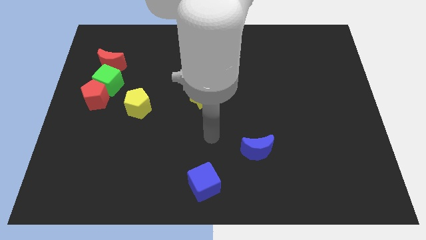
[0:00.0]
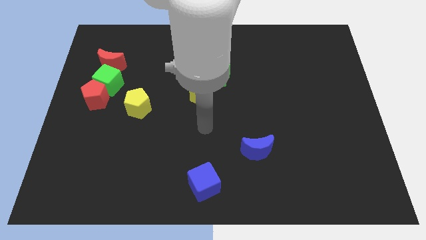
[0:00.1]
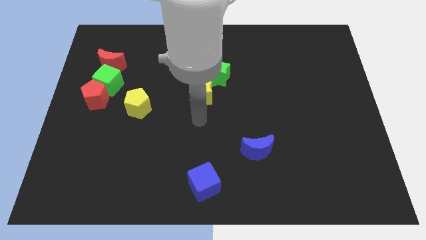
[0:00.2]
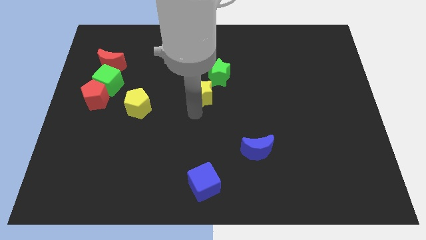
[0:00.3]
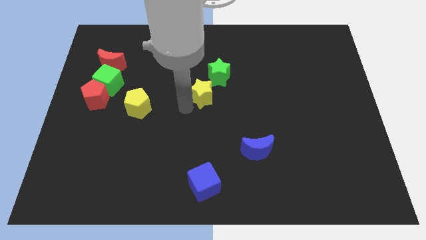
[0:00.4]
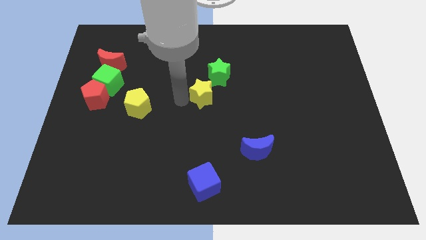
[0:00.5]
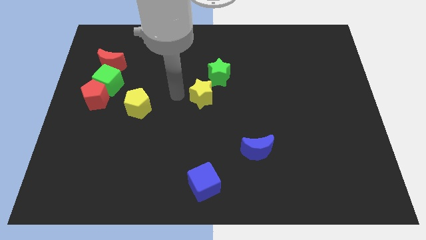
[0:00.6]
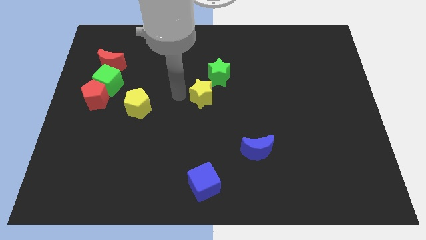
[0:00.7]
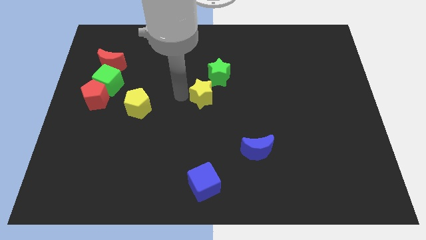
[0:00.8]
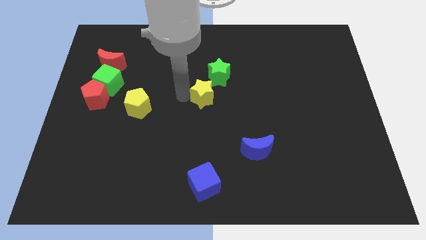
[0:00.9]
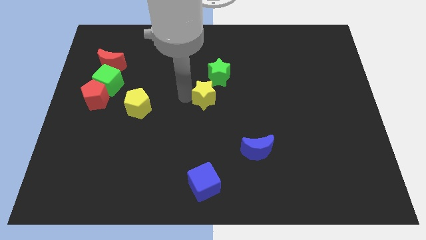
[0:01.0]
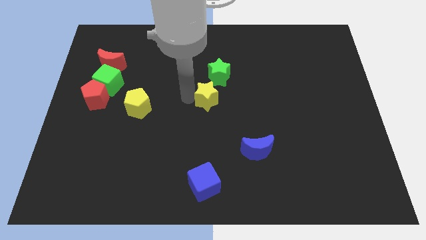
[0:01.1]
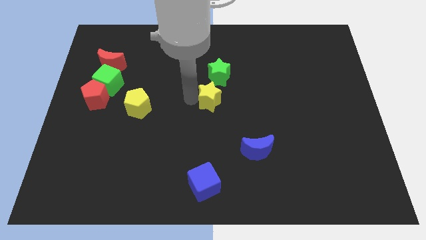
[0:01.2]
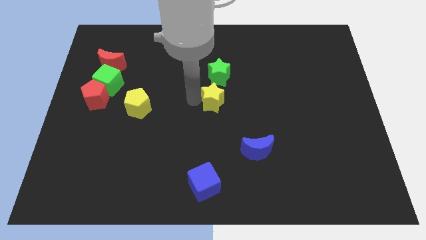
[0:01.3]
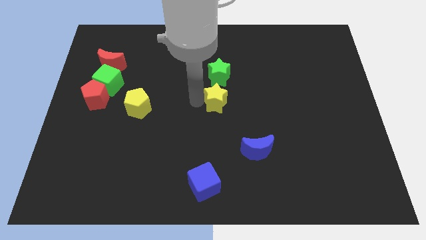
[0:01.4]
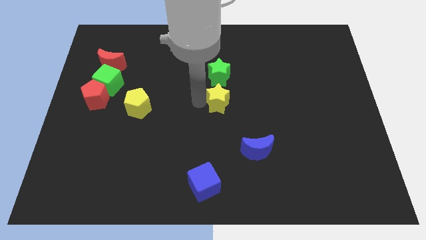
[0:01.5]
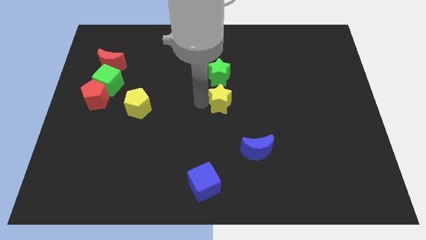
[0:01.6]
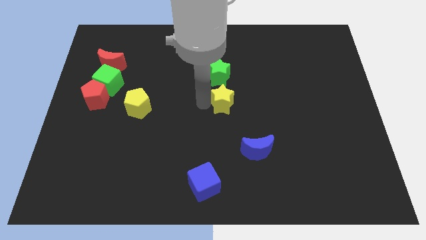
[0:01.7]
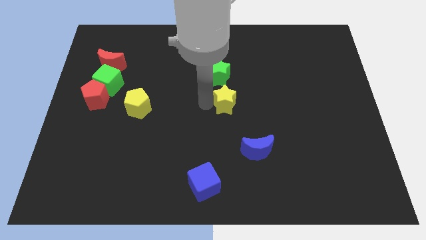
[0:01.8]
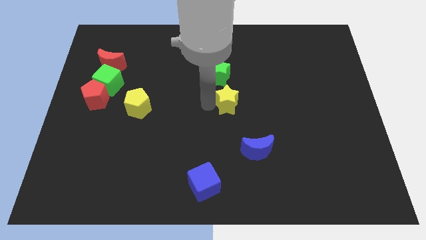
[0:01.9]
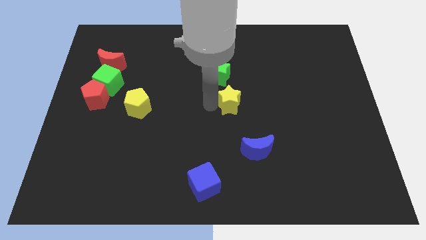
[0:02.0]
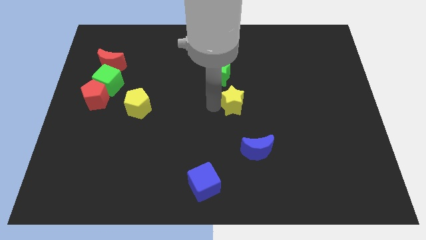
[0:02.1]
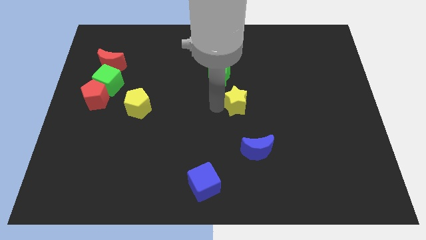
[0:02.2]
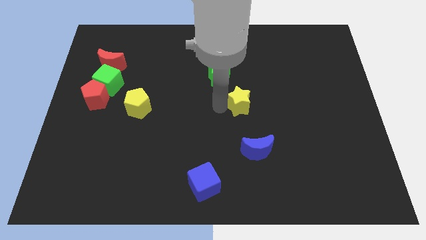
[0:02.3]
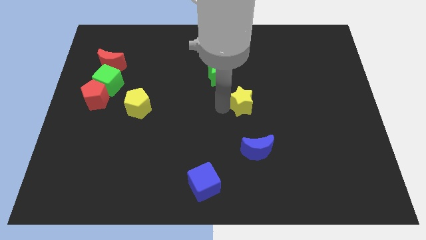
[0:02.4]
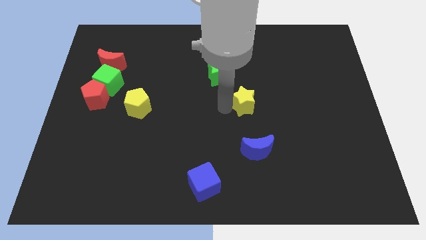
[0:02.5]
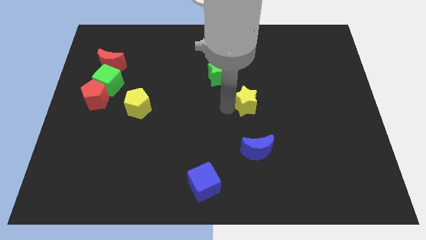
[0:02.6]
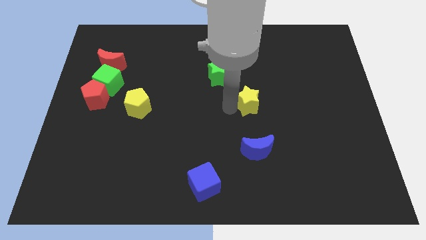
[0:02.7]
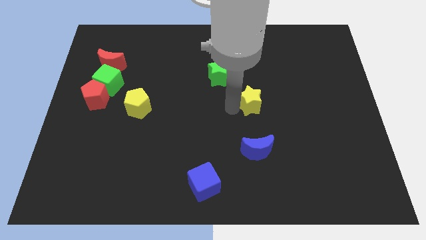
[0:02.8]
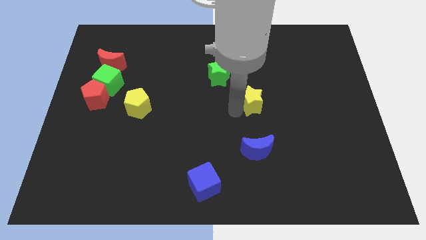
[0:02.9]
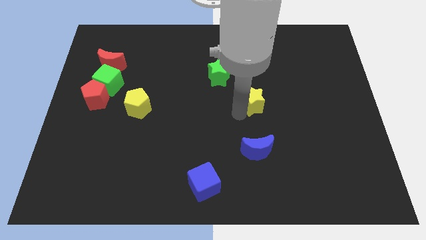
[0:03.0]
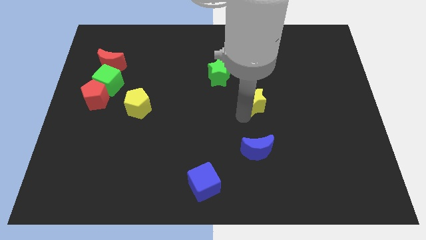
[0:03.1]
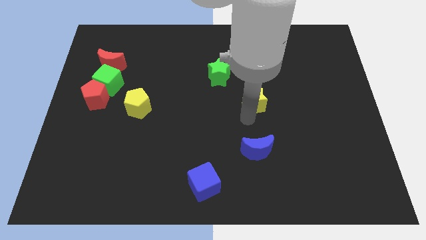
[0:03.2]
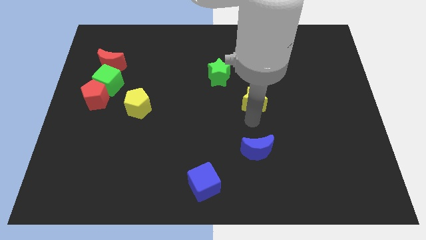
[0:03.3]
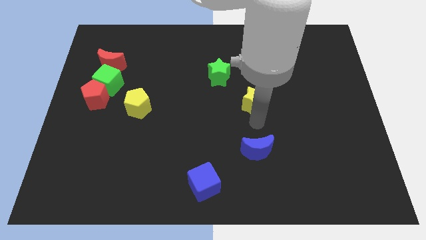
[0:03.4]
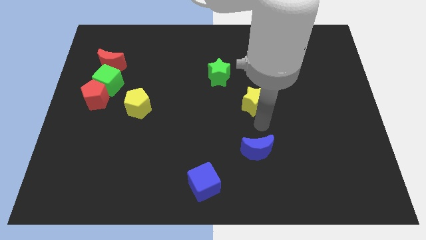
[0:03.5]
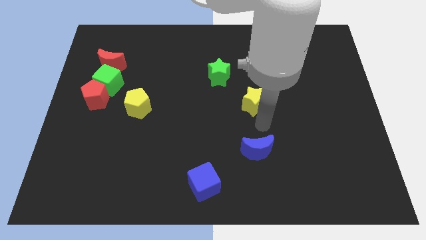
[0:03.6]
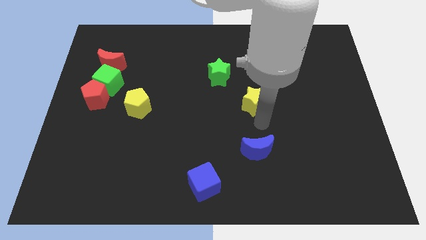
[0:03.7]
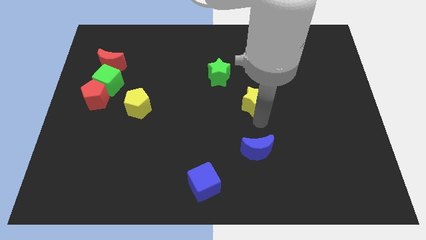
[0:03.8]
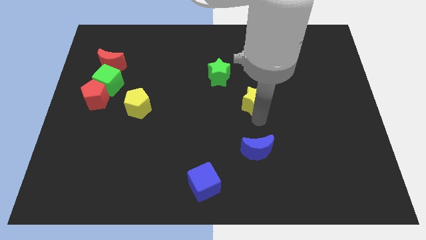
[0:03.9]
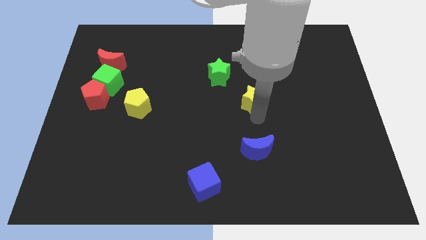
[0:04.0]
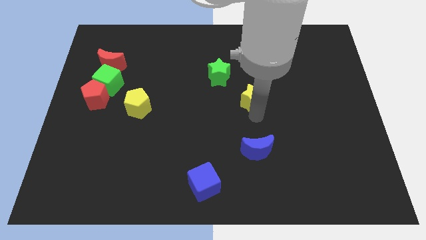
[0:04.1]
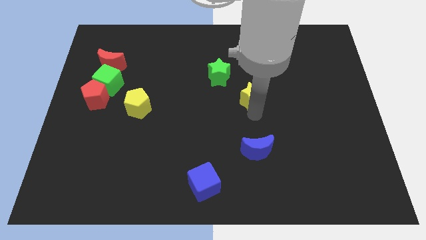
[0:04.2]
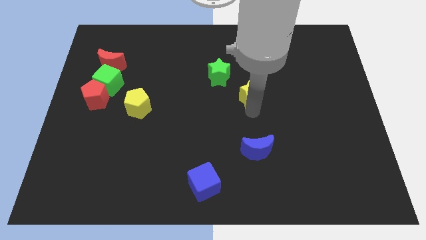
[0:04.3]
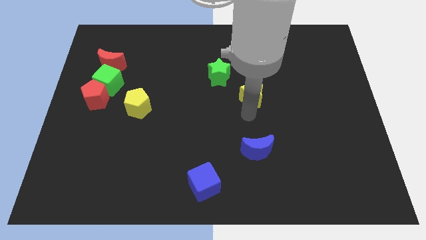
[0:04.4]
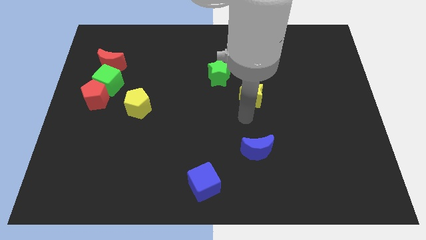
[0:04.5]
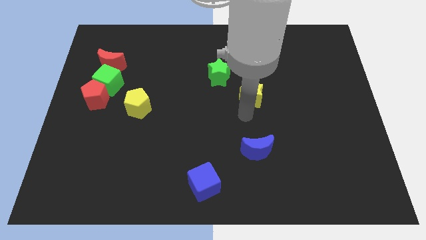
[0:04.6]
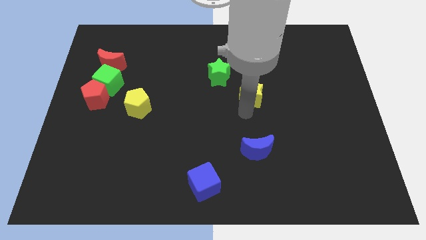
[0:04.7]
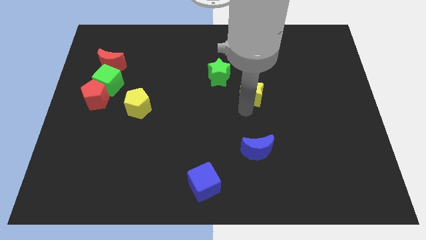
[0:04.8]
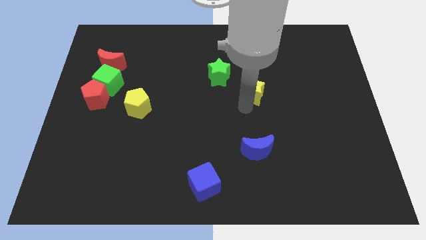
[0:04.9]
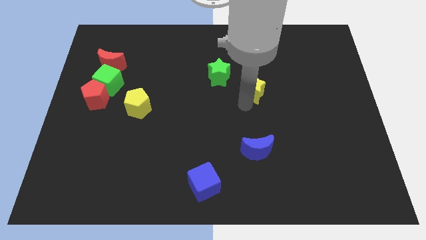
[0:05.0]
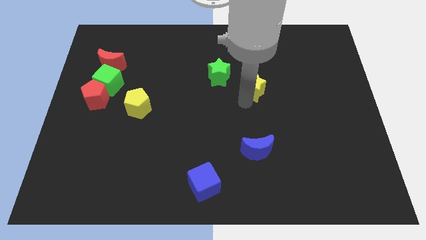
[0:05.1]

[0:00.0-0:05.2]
move the yellow star just right of the green star

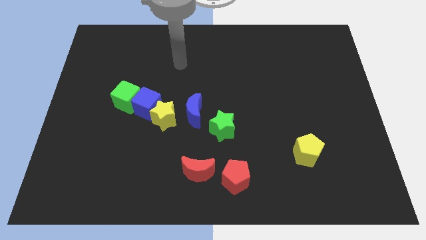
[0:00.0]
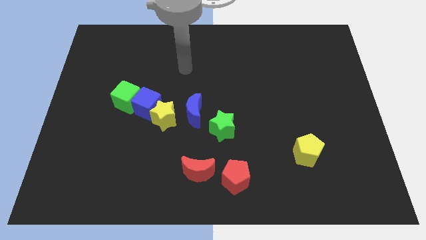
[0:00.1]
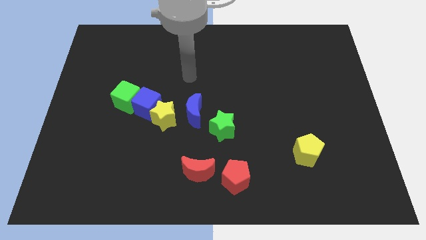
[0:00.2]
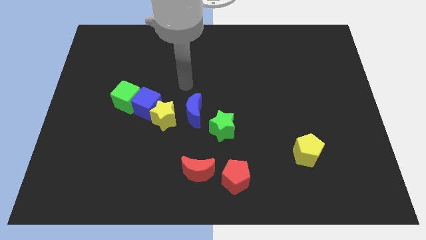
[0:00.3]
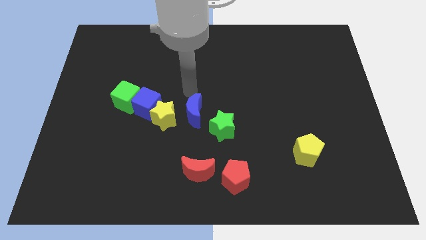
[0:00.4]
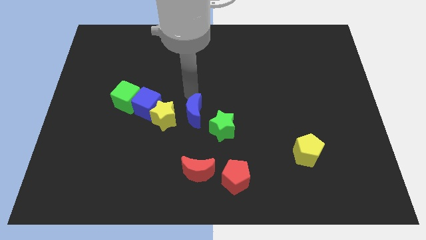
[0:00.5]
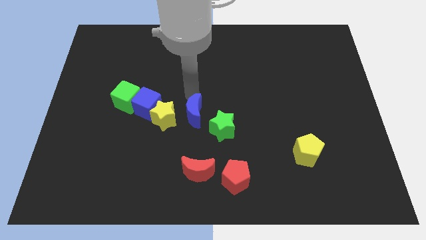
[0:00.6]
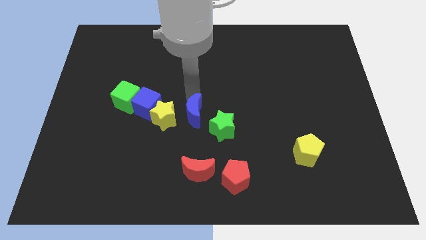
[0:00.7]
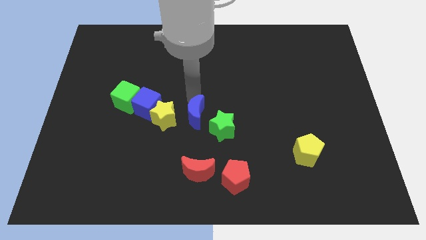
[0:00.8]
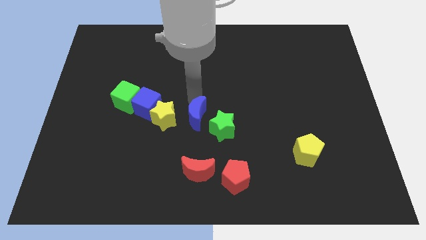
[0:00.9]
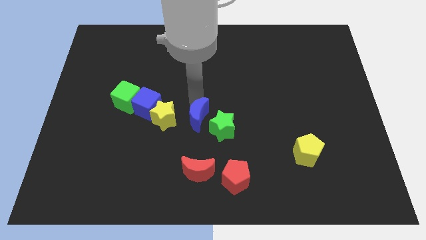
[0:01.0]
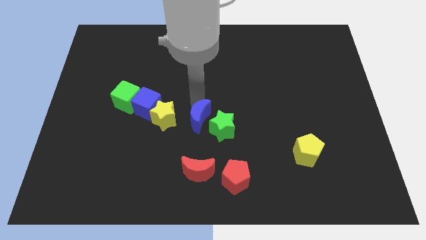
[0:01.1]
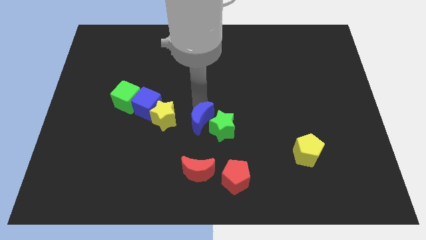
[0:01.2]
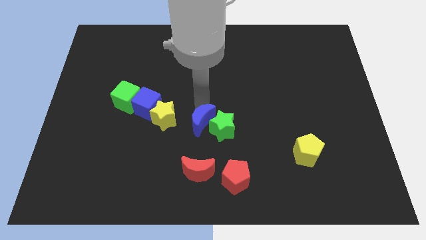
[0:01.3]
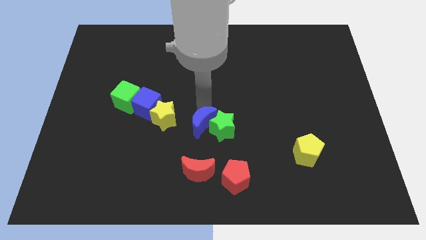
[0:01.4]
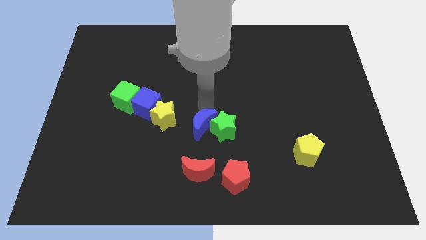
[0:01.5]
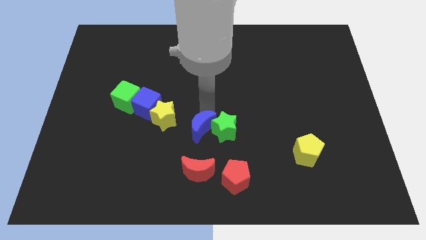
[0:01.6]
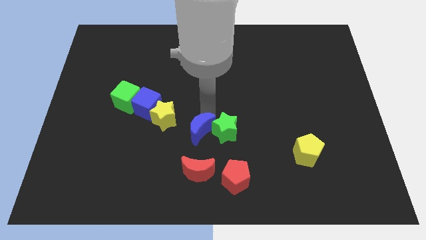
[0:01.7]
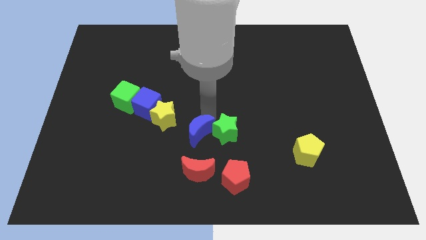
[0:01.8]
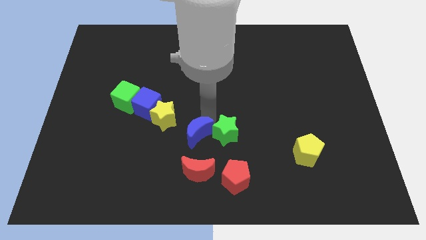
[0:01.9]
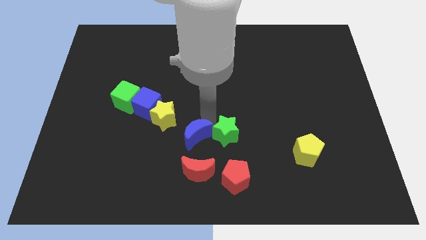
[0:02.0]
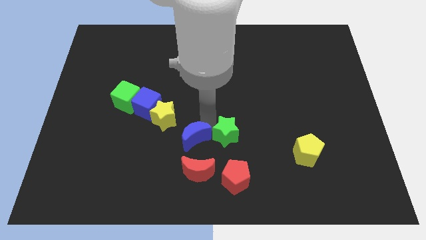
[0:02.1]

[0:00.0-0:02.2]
put the blue moon to the top left side of the red pentagon

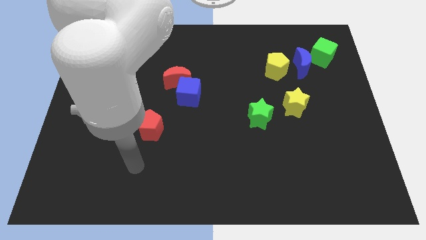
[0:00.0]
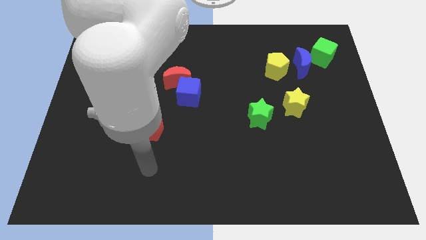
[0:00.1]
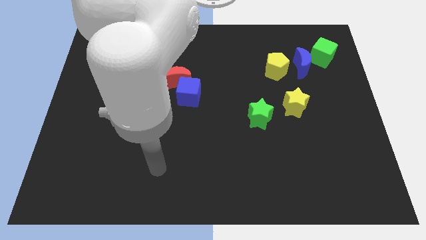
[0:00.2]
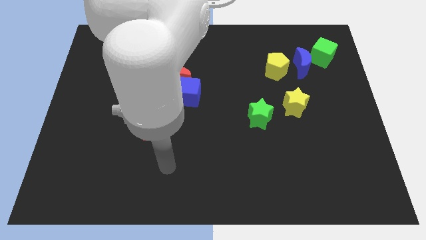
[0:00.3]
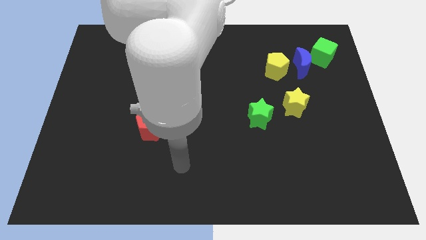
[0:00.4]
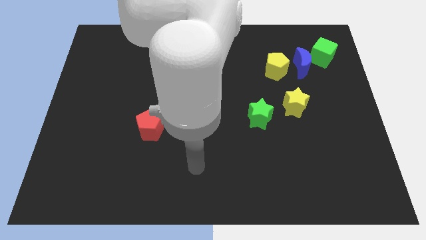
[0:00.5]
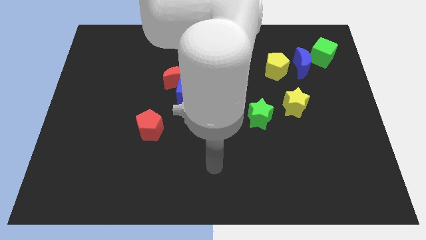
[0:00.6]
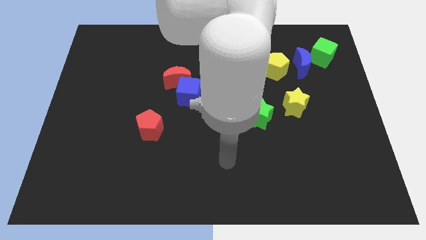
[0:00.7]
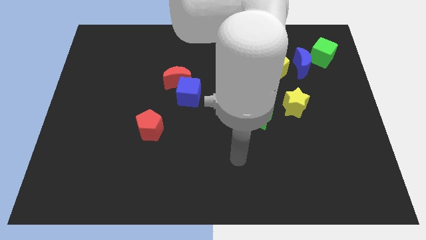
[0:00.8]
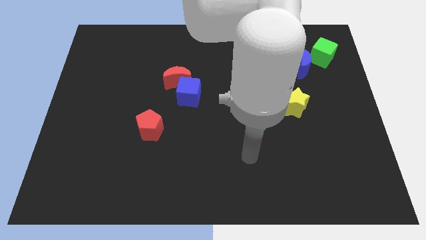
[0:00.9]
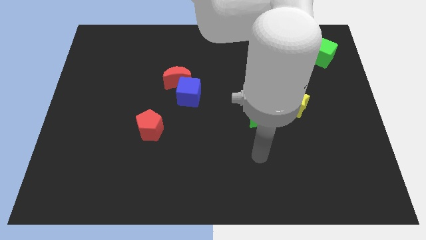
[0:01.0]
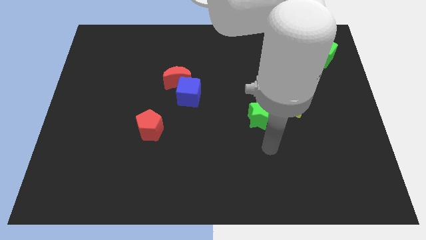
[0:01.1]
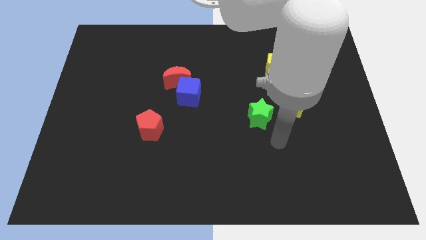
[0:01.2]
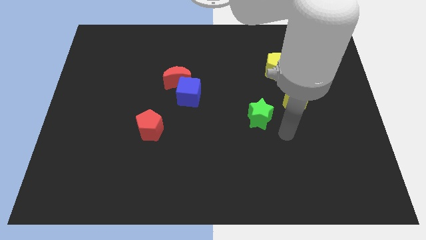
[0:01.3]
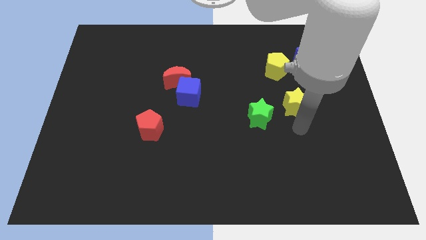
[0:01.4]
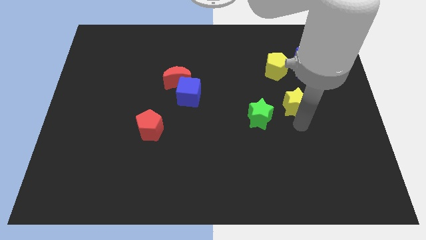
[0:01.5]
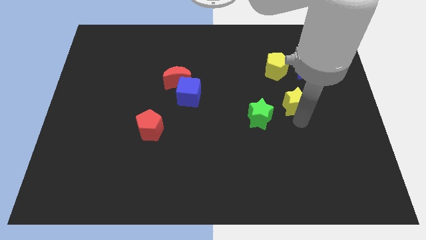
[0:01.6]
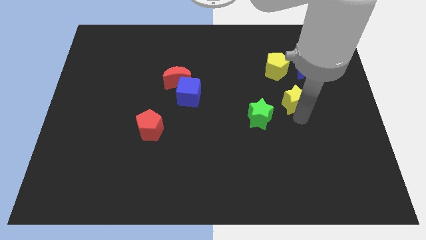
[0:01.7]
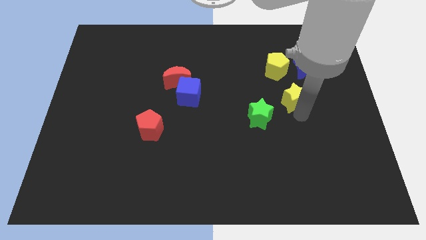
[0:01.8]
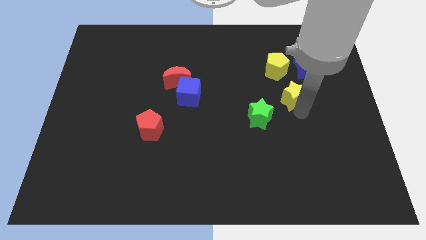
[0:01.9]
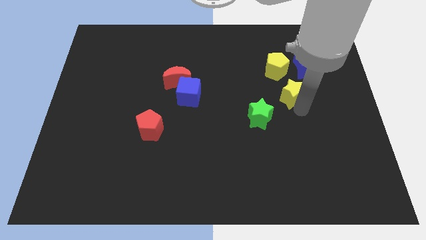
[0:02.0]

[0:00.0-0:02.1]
move the yellow star to the bottom left of the blue moon
